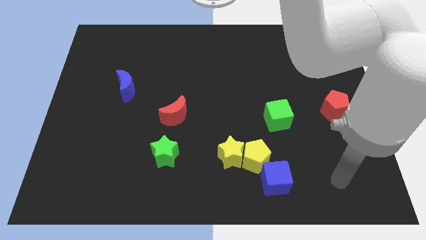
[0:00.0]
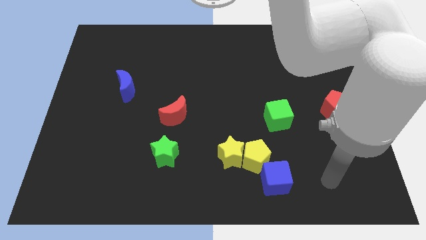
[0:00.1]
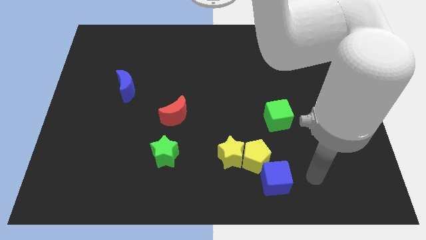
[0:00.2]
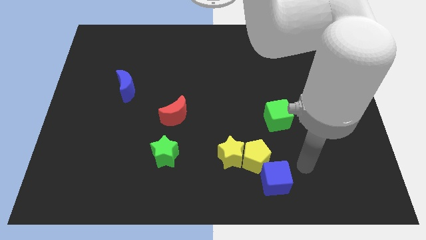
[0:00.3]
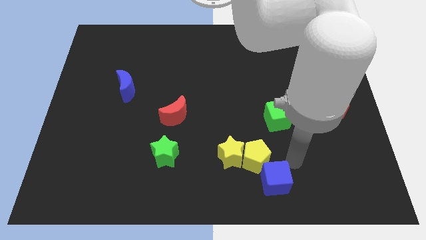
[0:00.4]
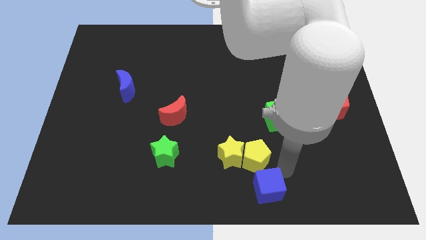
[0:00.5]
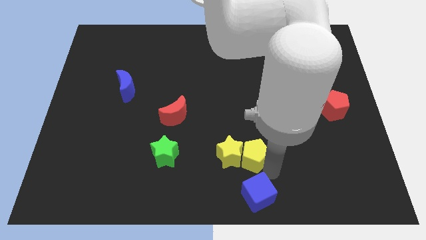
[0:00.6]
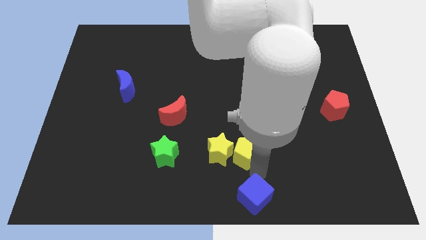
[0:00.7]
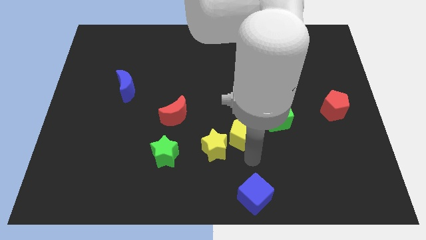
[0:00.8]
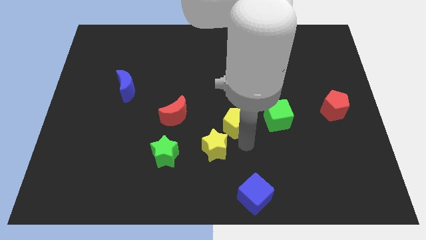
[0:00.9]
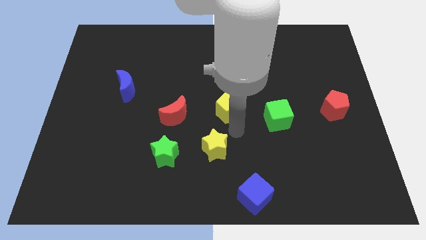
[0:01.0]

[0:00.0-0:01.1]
move the yellow star away from the yellow pentagon

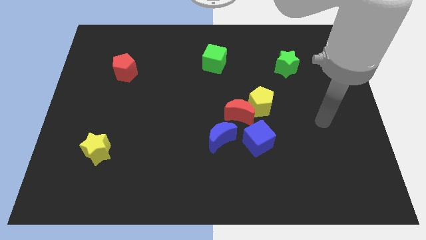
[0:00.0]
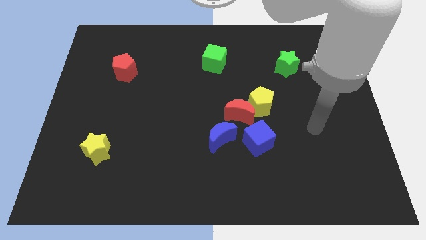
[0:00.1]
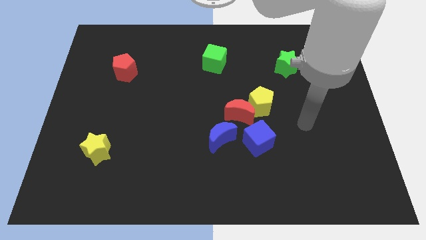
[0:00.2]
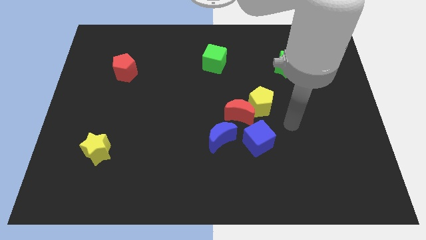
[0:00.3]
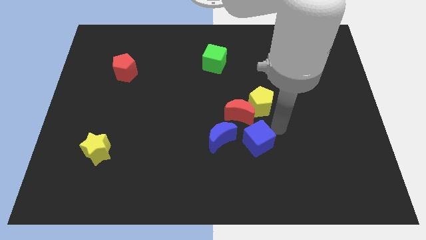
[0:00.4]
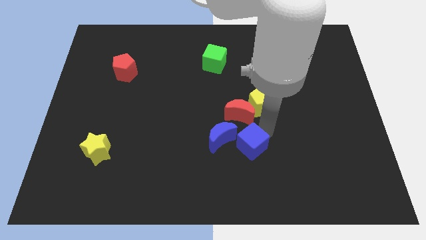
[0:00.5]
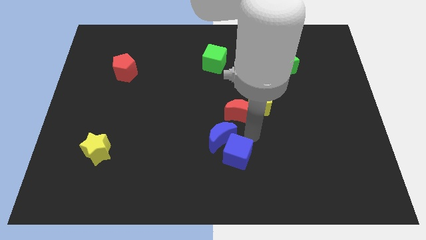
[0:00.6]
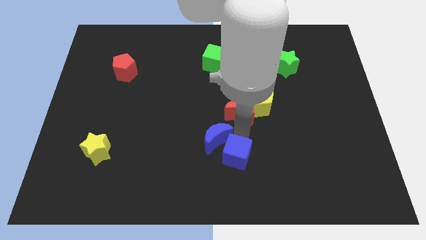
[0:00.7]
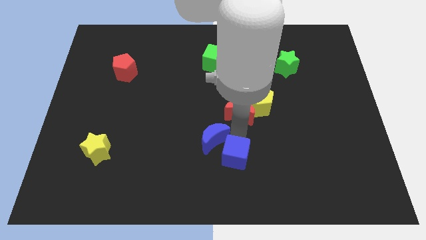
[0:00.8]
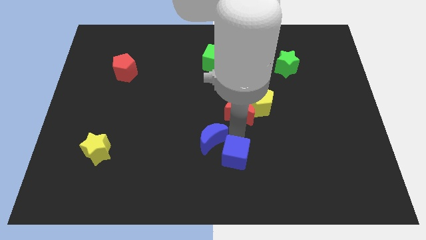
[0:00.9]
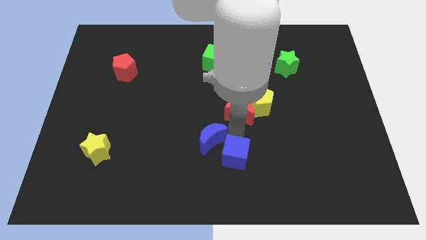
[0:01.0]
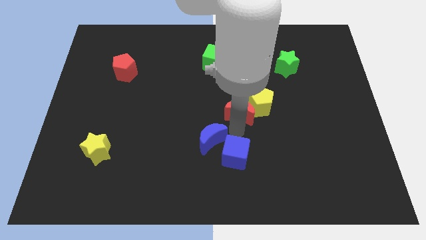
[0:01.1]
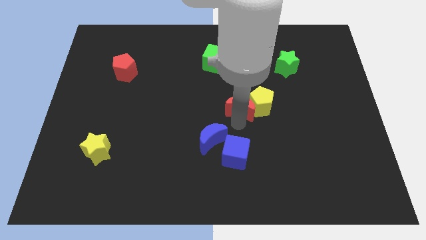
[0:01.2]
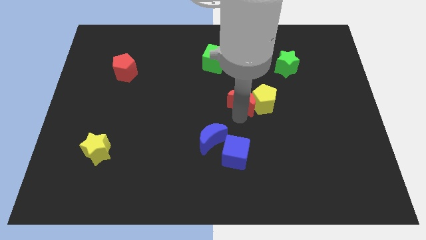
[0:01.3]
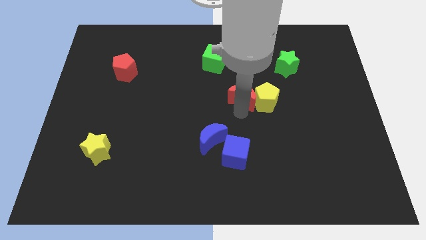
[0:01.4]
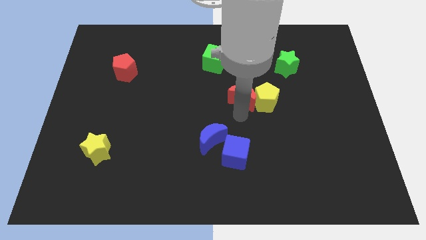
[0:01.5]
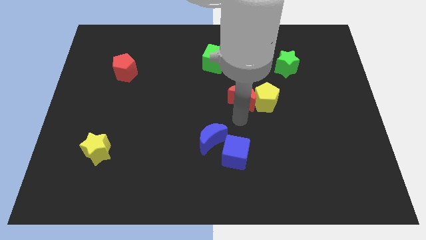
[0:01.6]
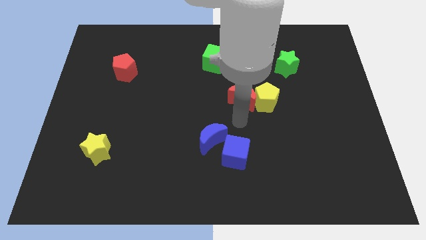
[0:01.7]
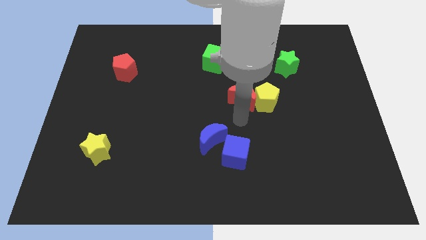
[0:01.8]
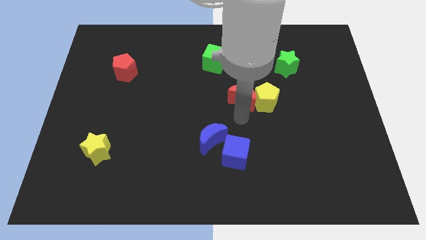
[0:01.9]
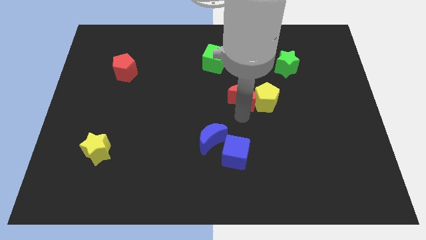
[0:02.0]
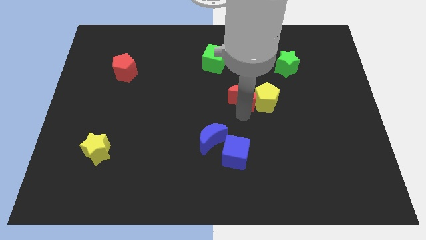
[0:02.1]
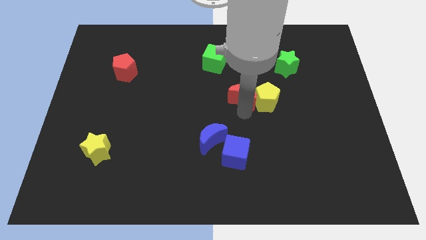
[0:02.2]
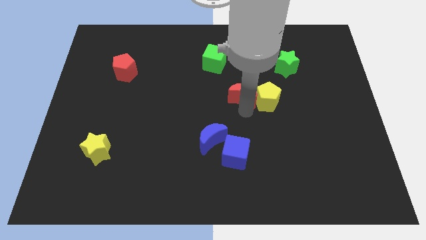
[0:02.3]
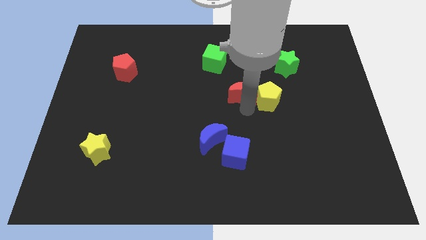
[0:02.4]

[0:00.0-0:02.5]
pull the red moon apart from the yellow pentagon, blue moon, and blue cube

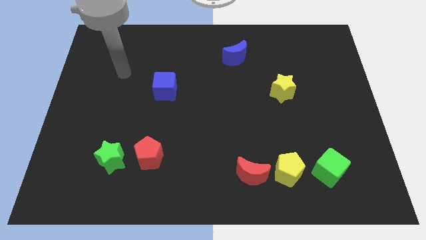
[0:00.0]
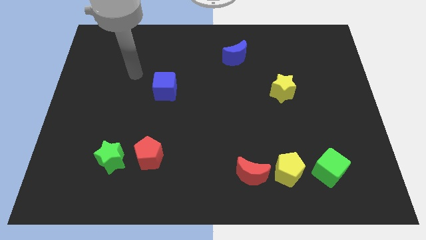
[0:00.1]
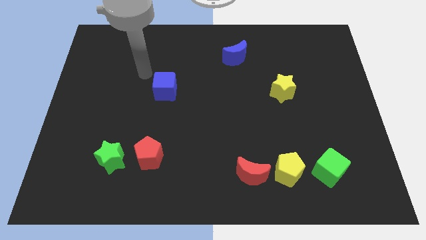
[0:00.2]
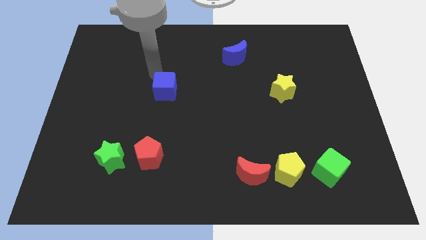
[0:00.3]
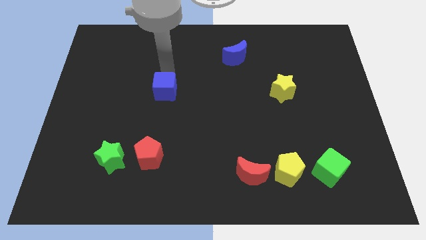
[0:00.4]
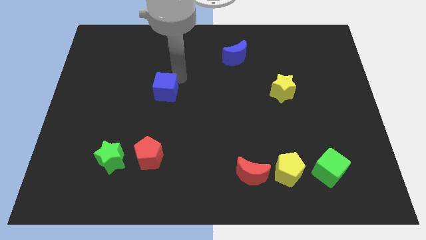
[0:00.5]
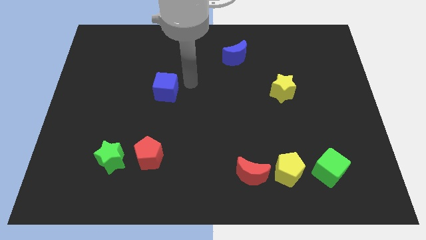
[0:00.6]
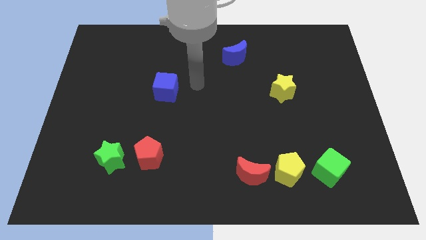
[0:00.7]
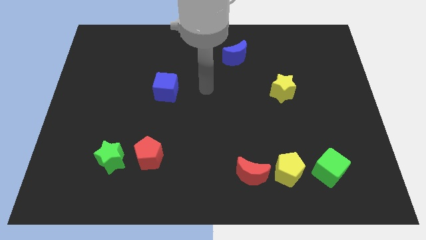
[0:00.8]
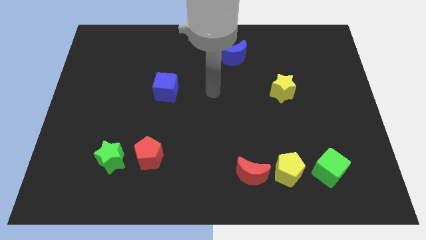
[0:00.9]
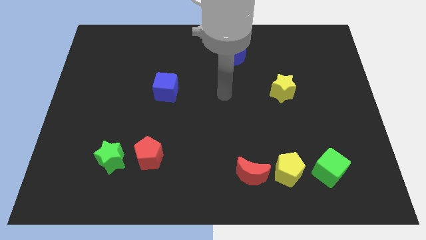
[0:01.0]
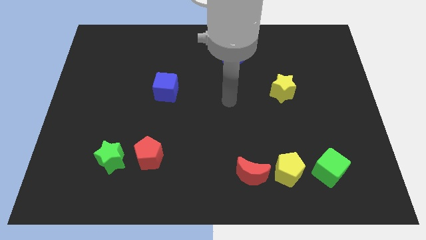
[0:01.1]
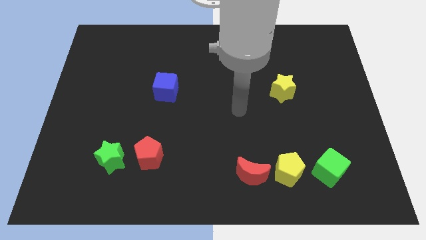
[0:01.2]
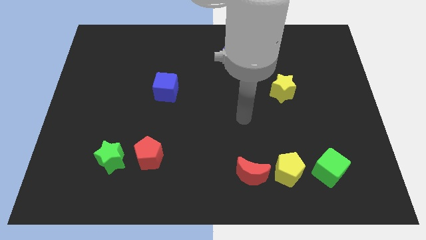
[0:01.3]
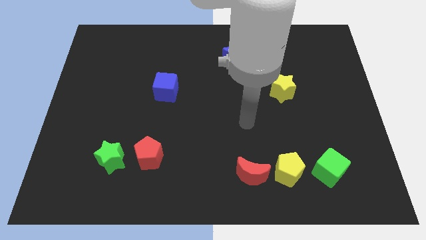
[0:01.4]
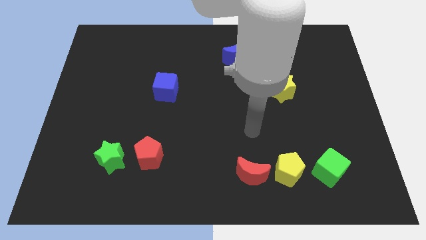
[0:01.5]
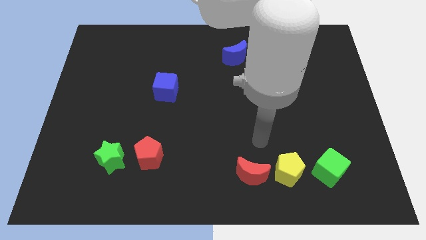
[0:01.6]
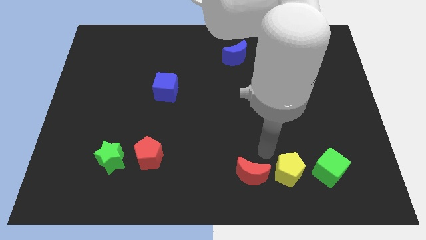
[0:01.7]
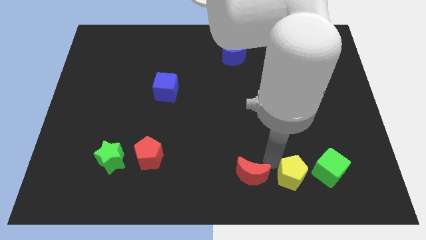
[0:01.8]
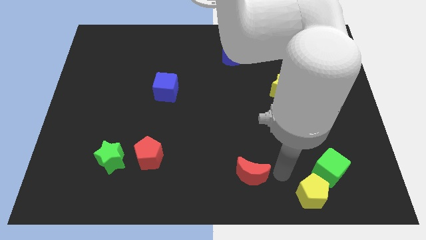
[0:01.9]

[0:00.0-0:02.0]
separate the red moon from the yellow pentagon

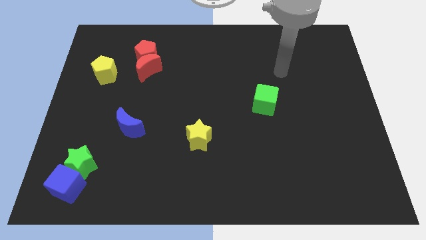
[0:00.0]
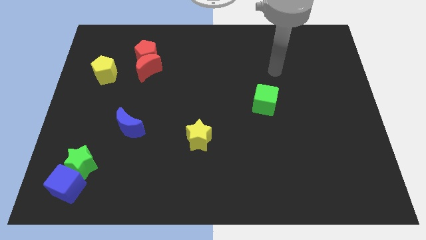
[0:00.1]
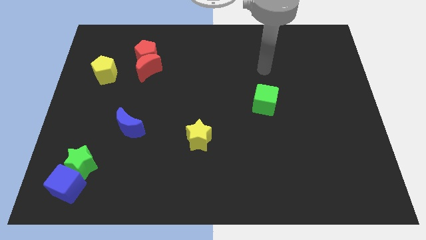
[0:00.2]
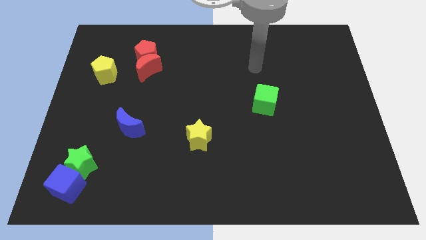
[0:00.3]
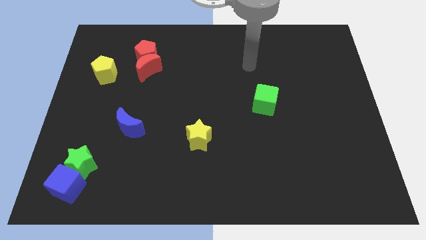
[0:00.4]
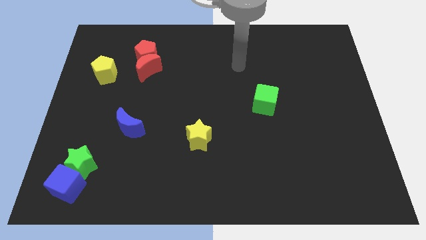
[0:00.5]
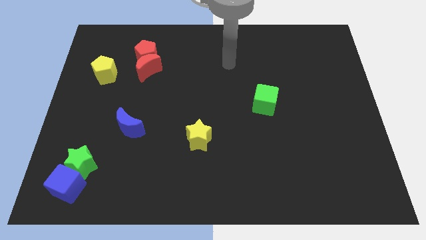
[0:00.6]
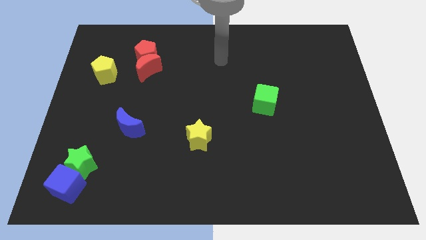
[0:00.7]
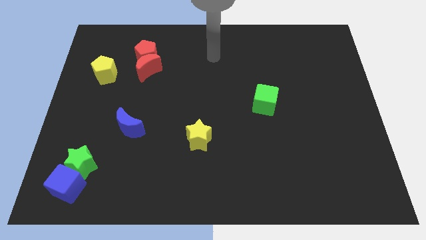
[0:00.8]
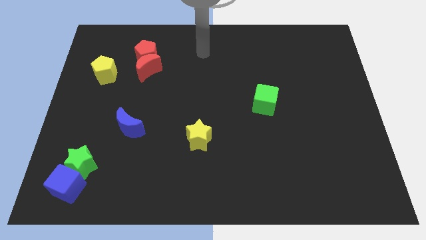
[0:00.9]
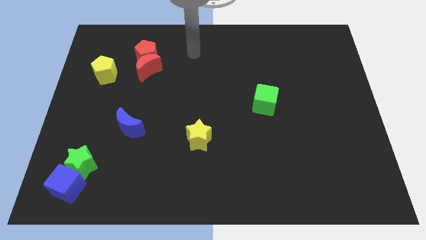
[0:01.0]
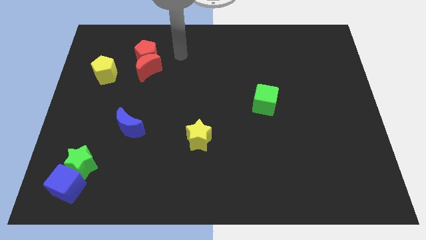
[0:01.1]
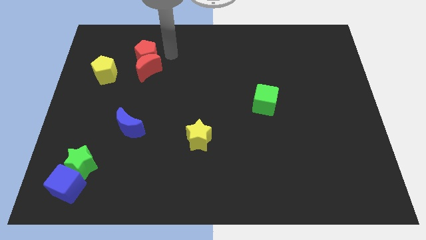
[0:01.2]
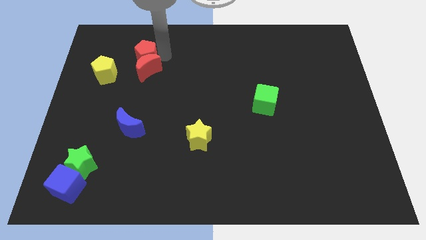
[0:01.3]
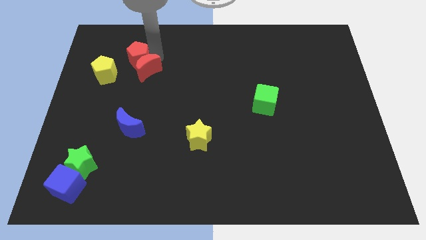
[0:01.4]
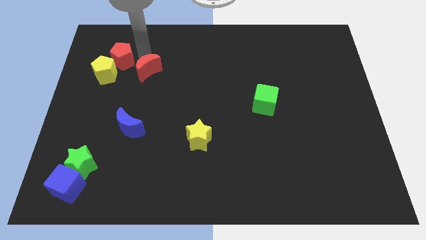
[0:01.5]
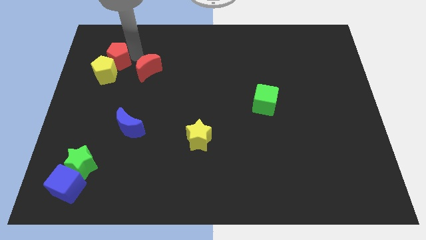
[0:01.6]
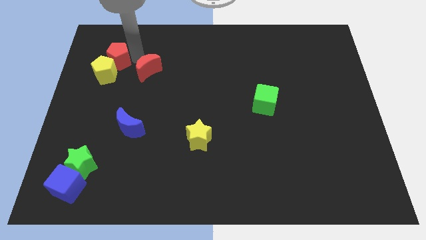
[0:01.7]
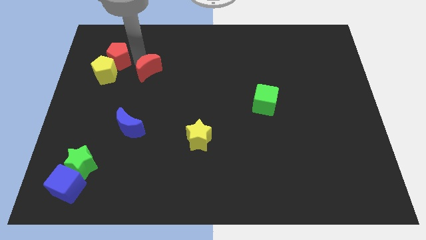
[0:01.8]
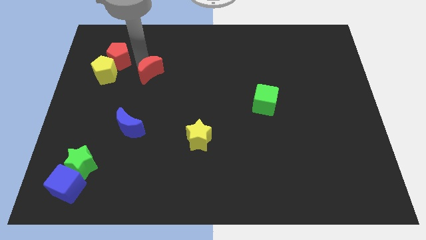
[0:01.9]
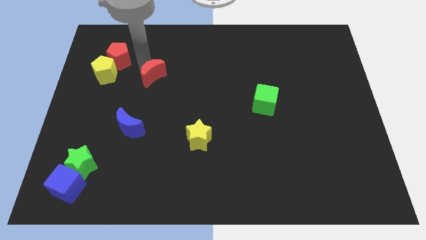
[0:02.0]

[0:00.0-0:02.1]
pull the red moon apart from the red pentagon

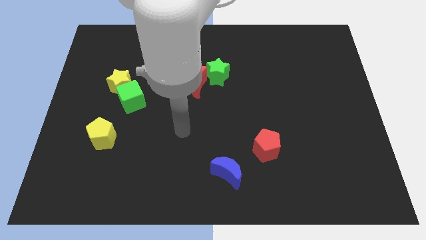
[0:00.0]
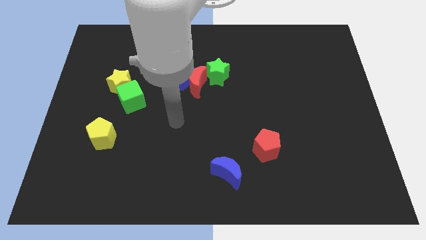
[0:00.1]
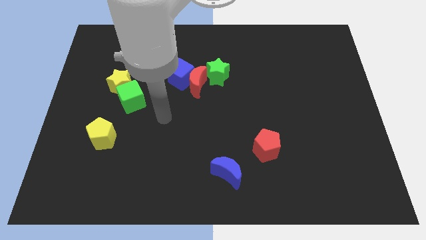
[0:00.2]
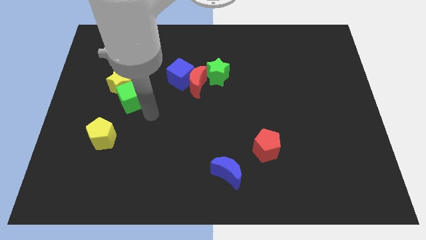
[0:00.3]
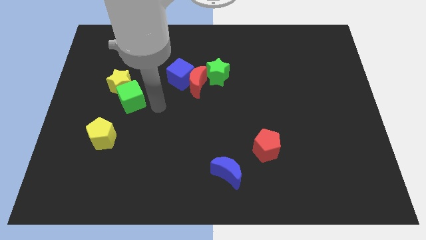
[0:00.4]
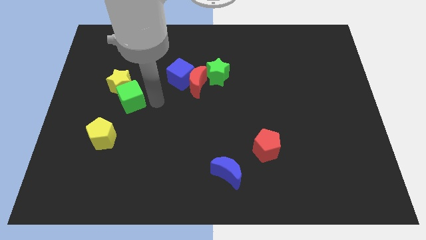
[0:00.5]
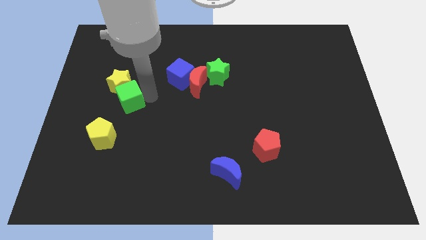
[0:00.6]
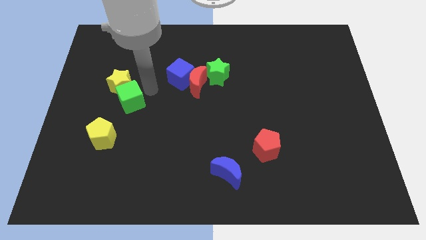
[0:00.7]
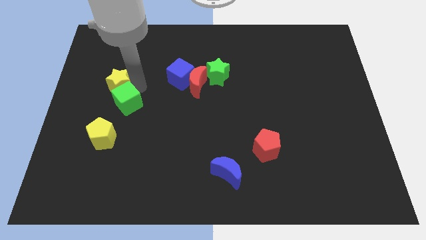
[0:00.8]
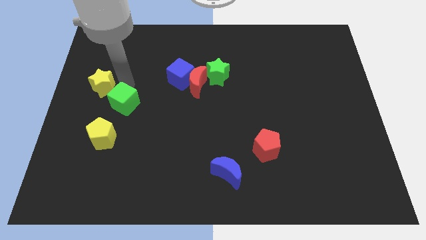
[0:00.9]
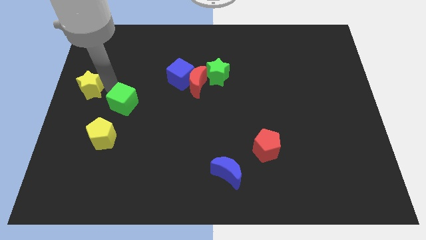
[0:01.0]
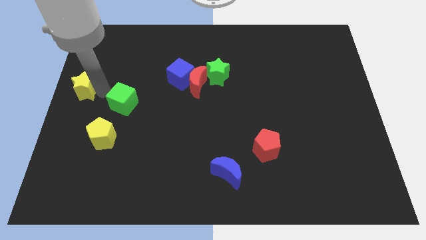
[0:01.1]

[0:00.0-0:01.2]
separate the green cube from the yellow star

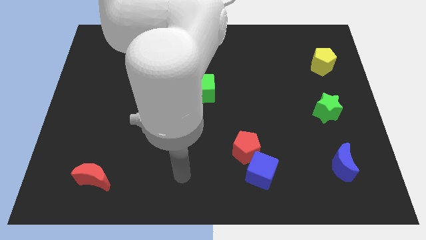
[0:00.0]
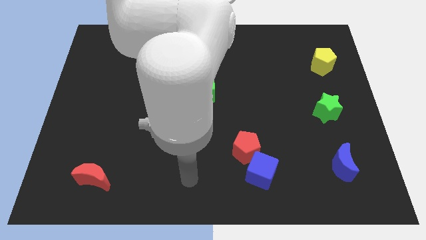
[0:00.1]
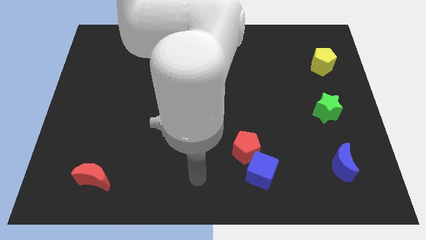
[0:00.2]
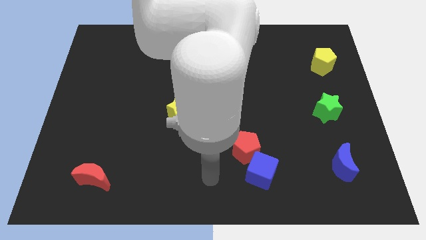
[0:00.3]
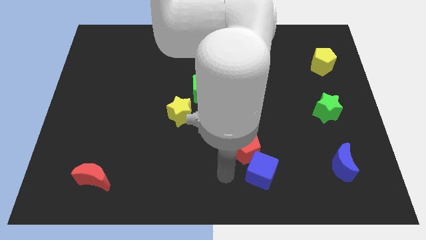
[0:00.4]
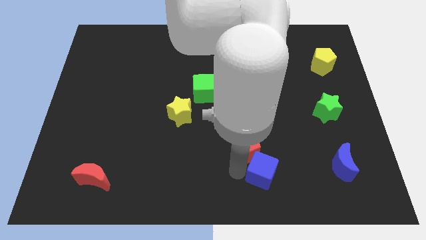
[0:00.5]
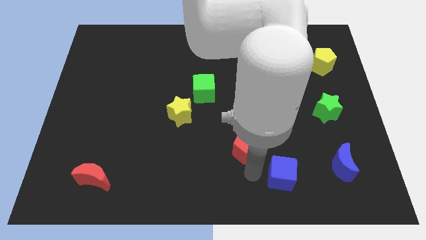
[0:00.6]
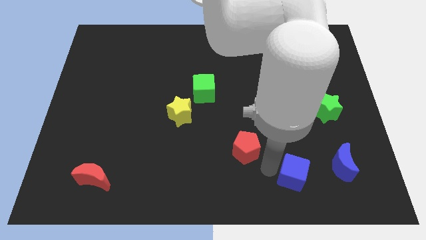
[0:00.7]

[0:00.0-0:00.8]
separate the red pentagon from the blue cube
